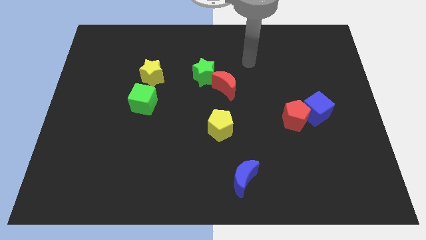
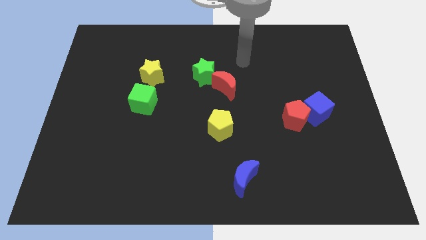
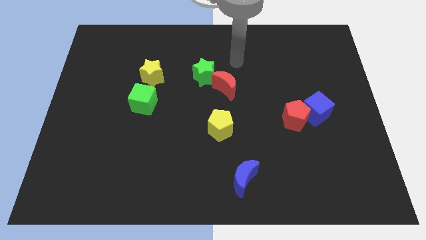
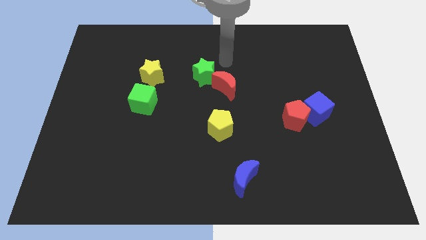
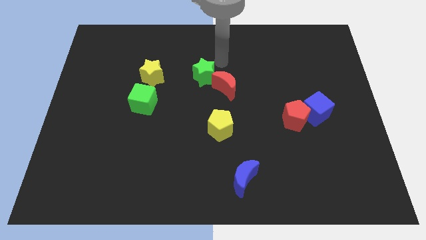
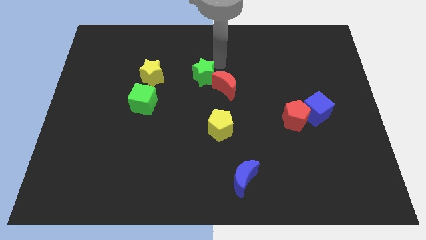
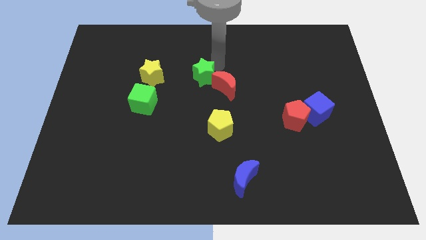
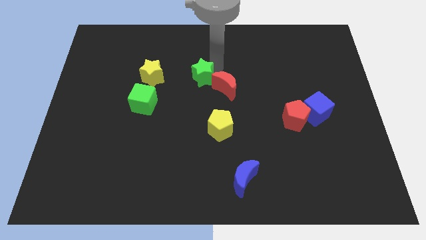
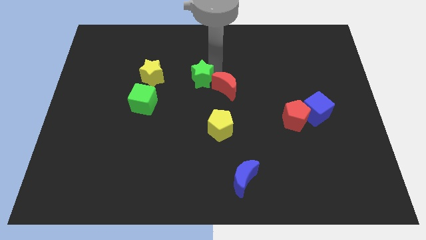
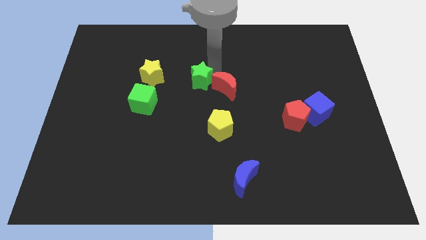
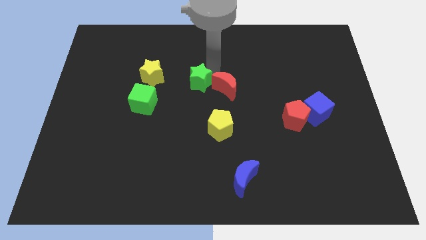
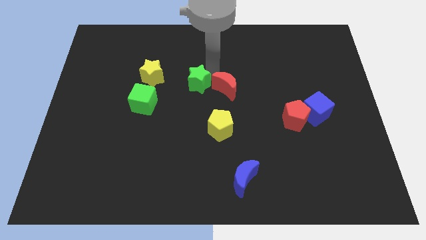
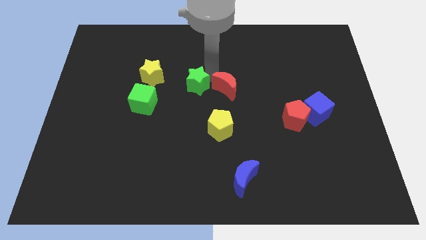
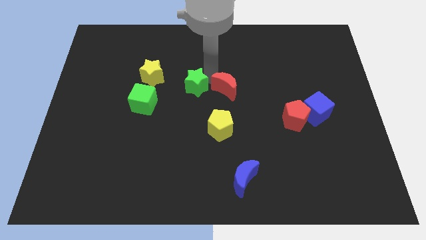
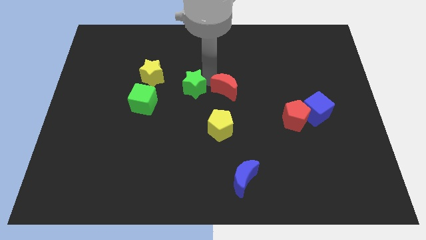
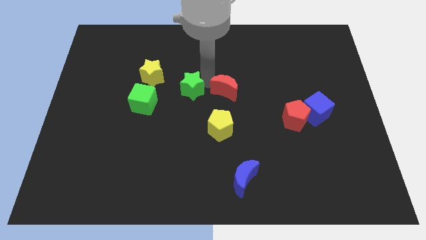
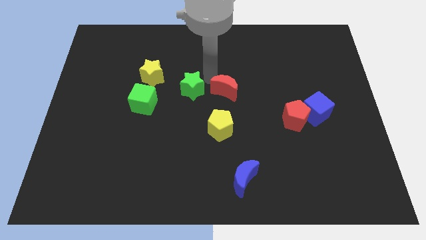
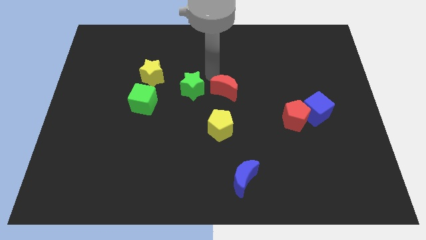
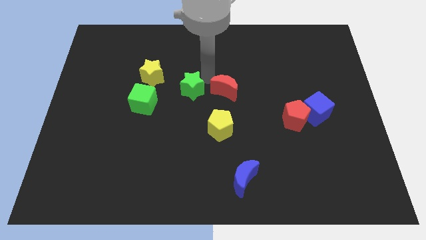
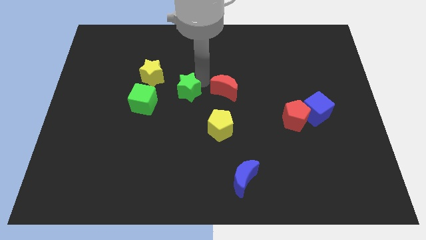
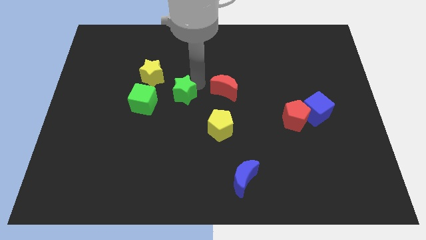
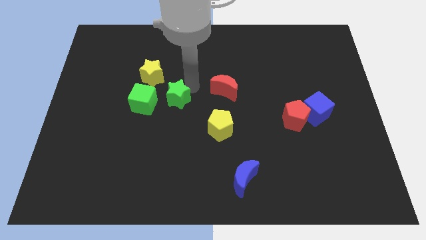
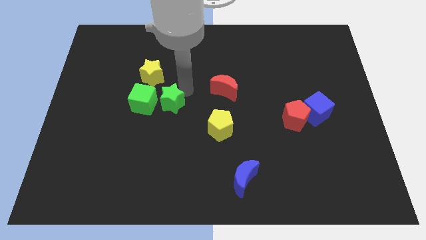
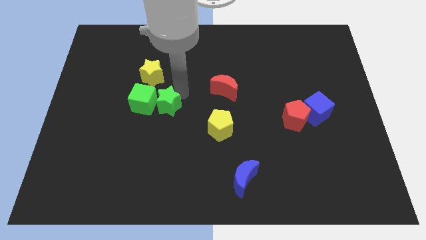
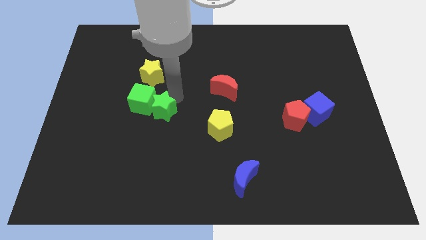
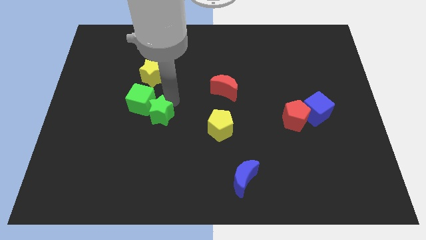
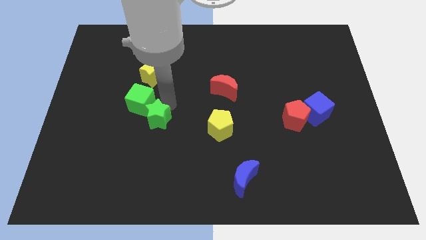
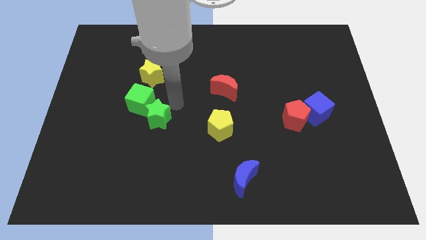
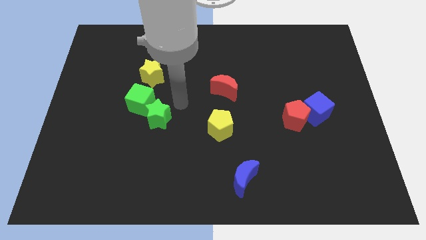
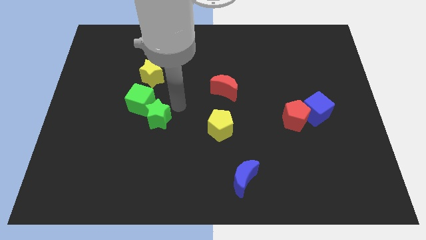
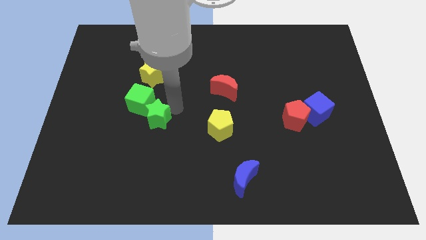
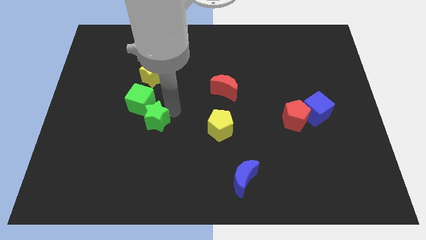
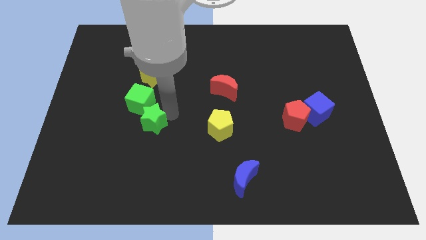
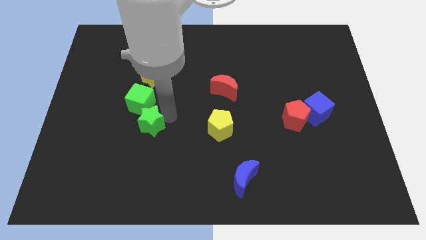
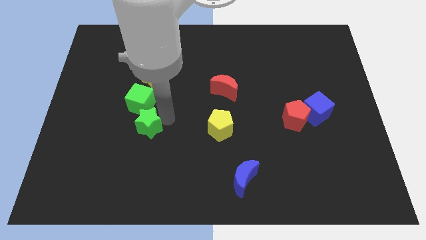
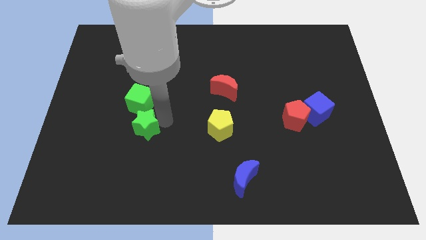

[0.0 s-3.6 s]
move the green star downwards and left

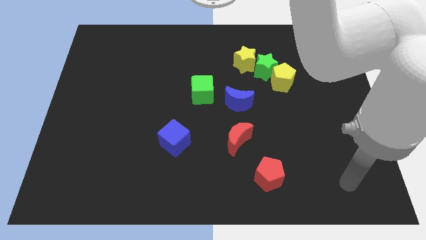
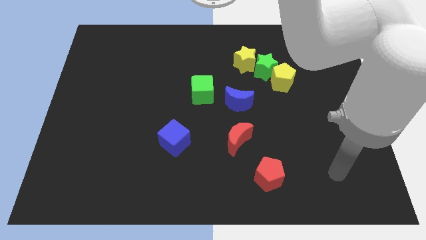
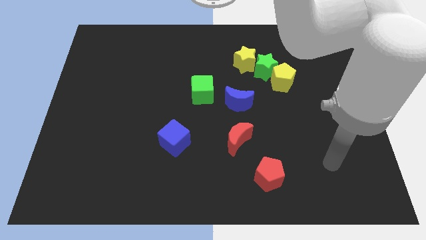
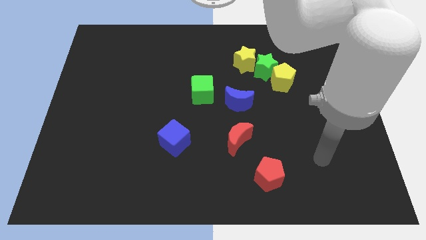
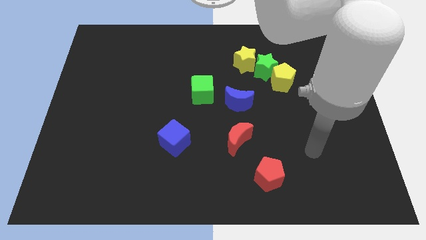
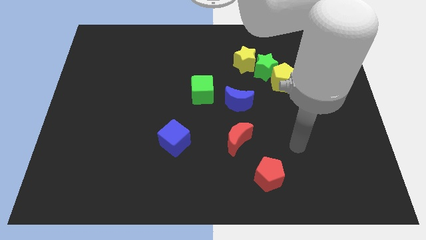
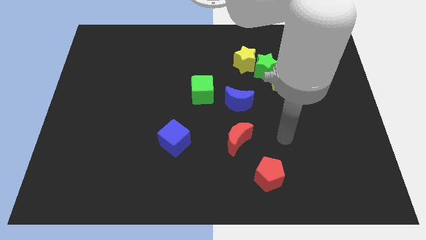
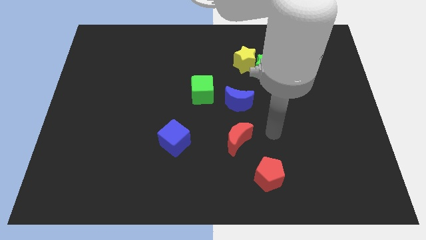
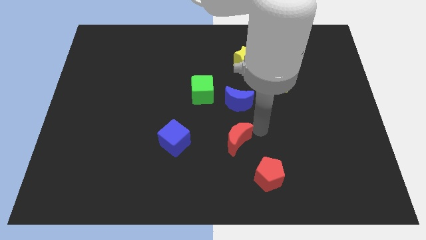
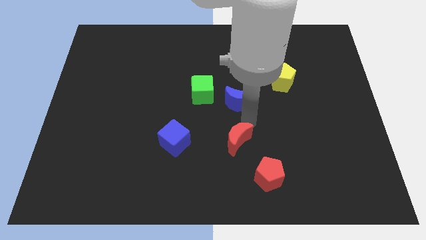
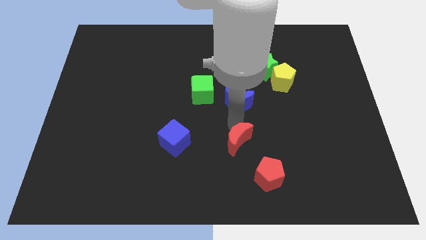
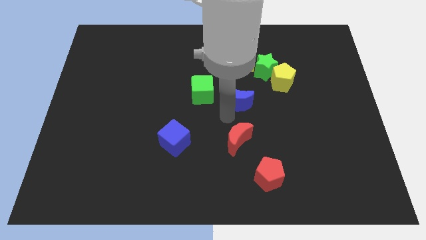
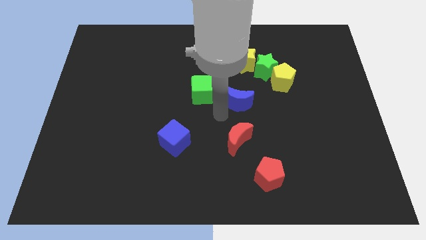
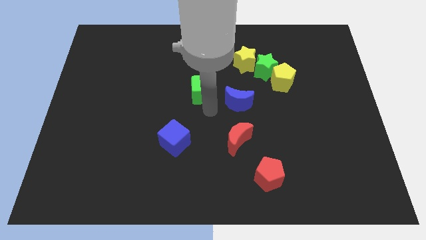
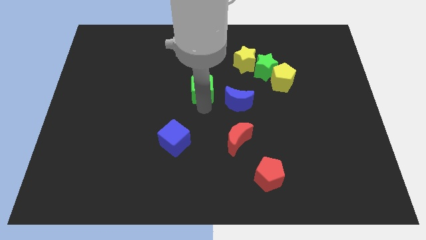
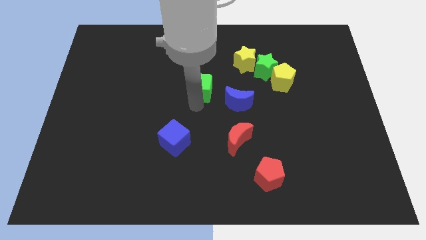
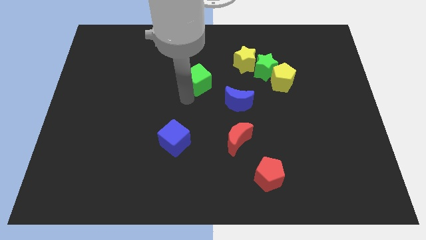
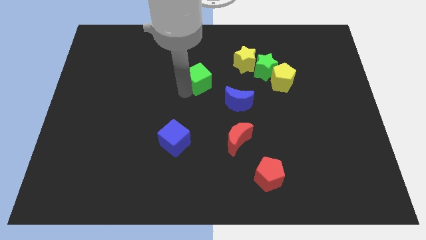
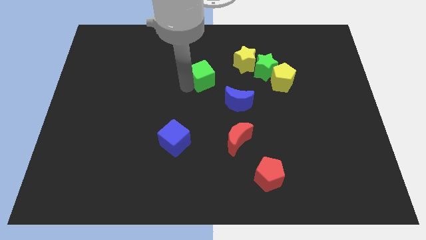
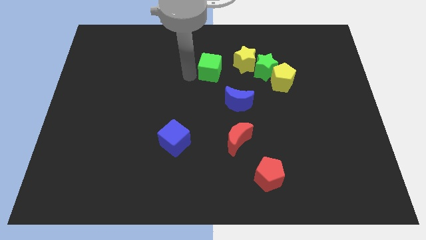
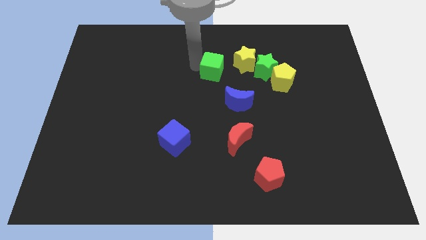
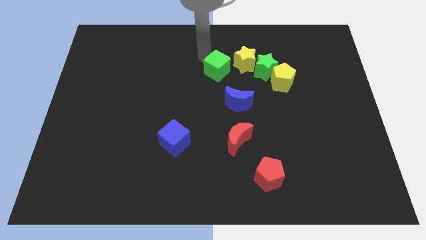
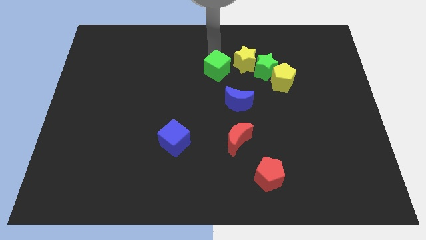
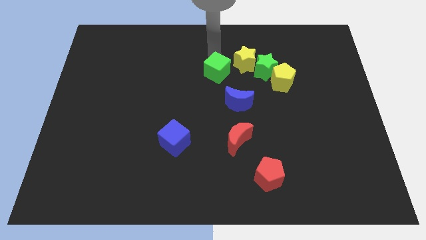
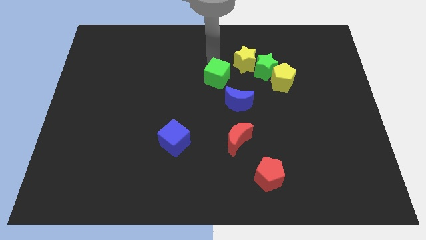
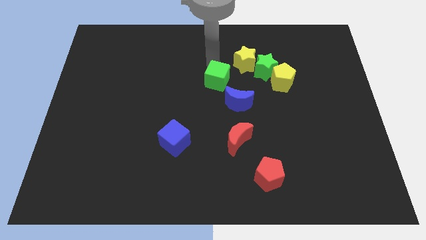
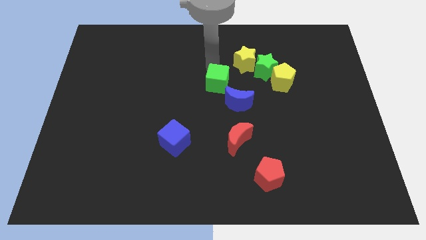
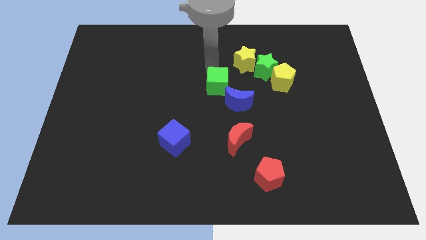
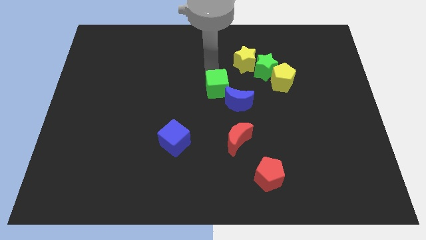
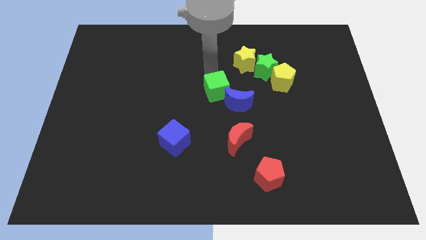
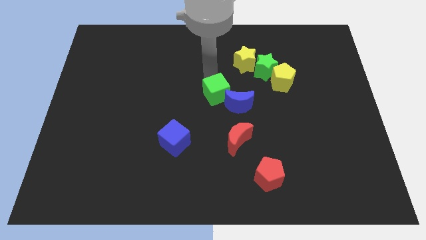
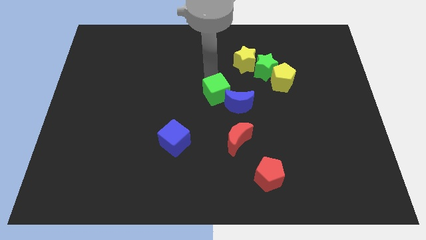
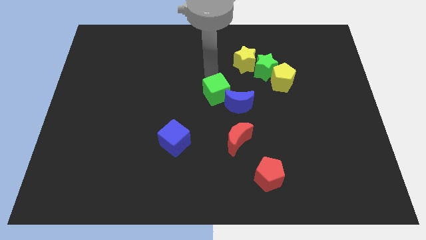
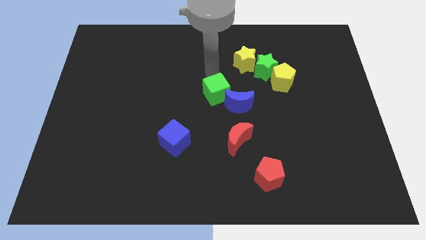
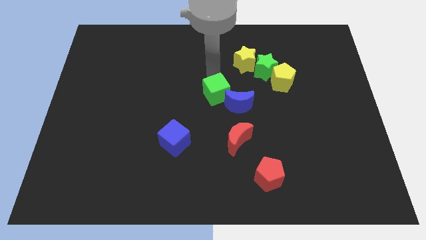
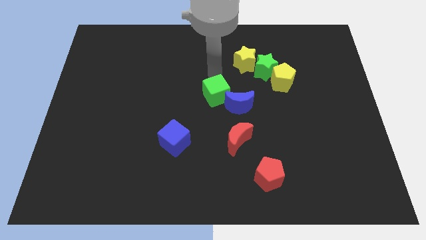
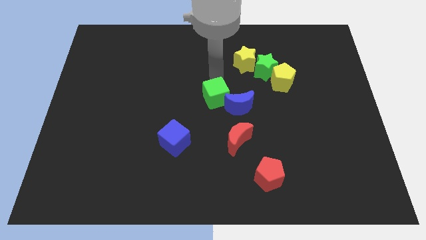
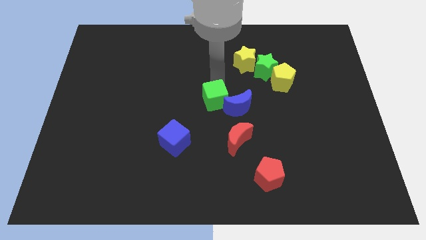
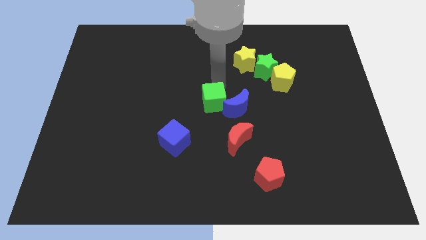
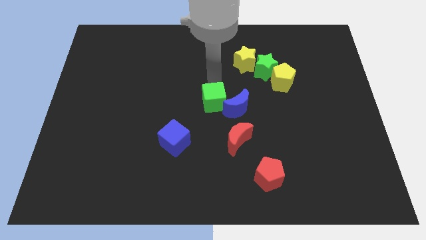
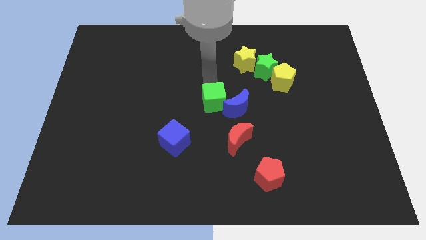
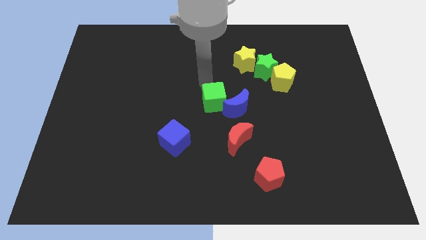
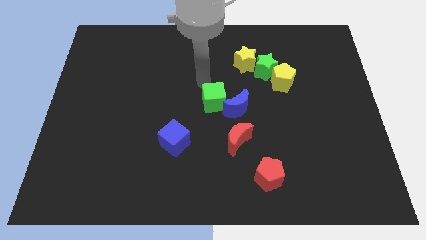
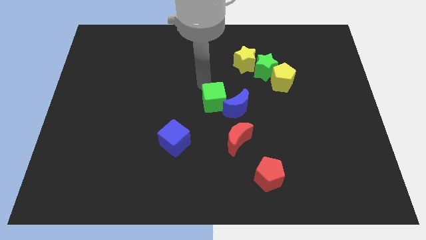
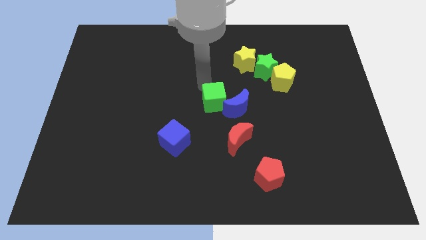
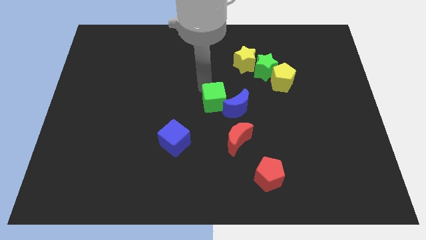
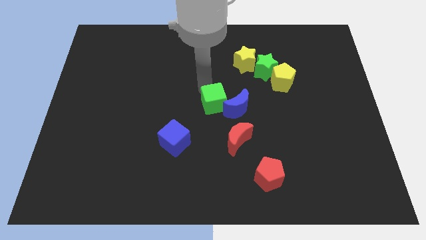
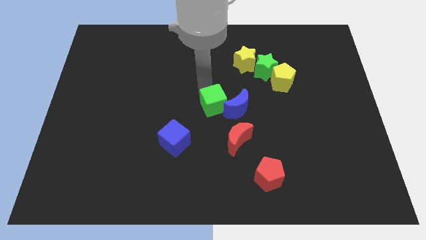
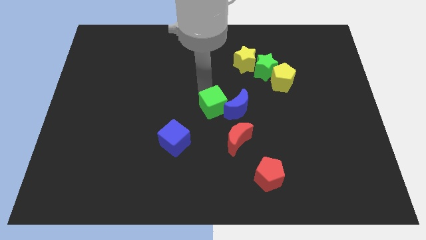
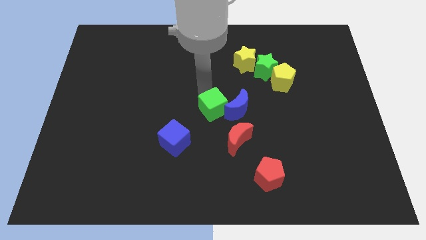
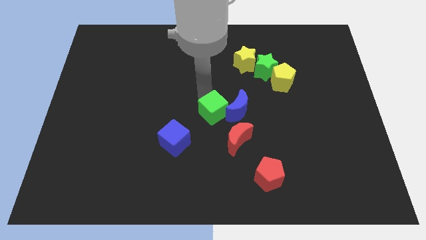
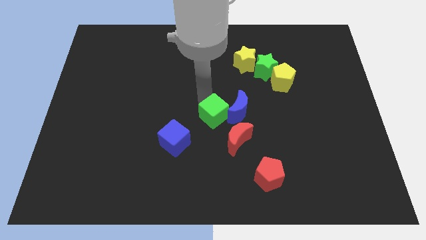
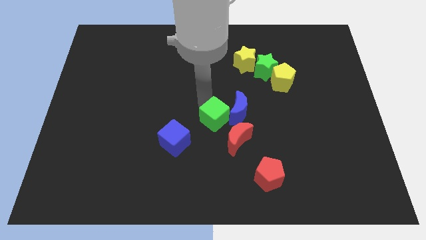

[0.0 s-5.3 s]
push the green cube a little bit downwards and to the right diagonally
